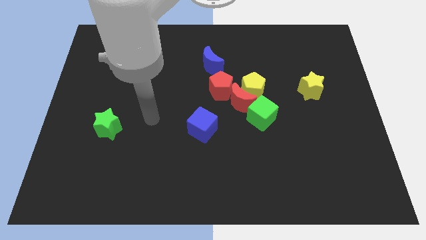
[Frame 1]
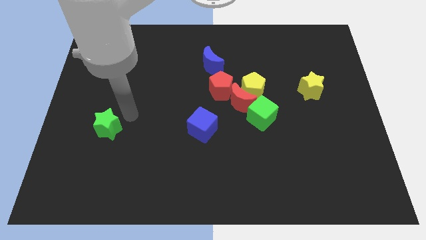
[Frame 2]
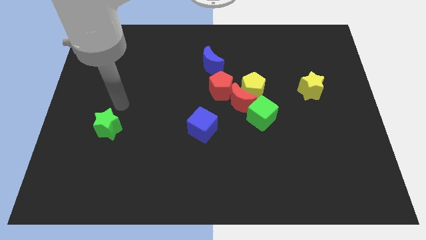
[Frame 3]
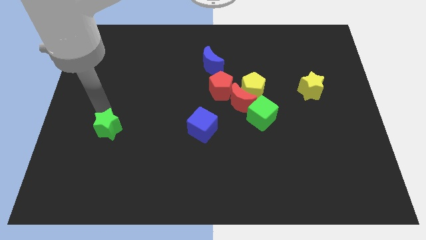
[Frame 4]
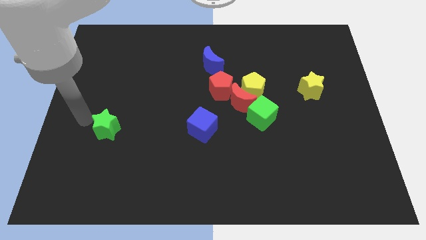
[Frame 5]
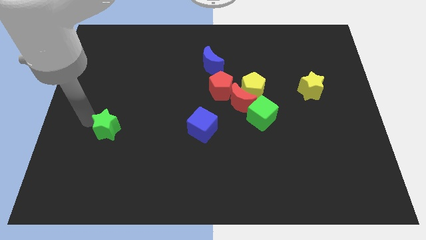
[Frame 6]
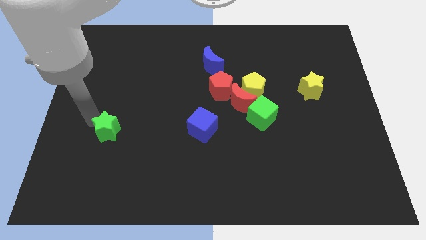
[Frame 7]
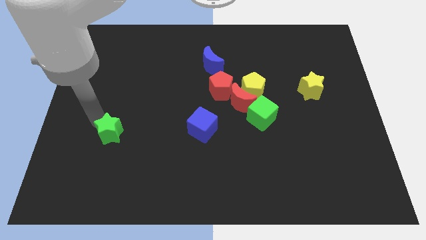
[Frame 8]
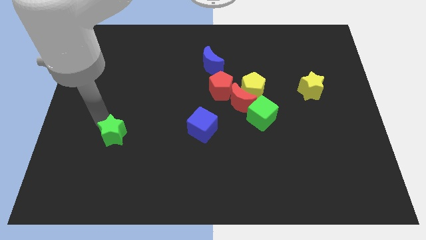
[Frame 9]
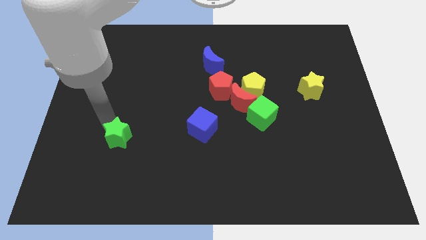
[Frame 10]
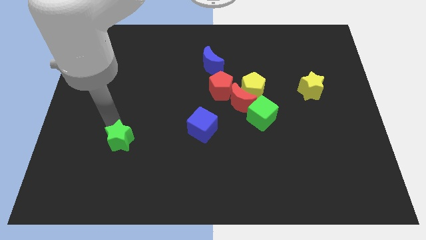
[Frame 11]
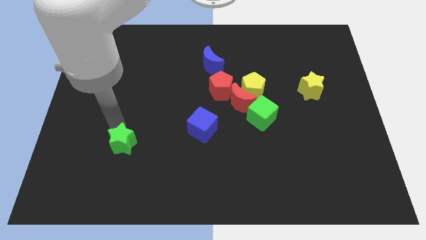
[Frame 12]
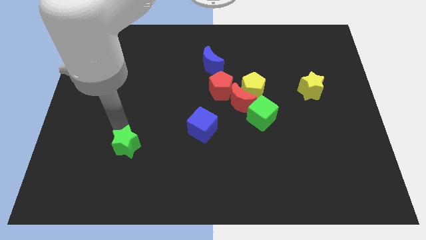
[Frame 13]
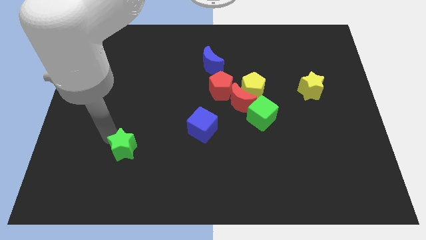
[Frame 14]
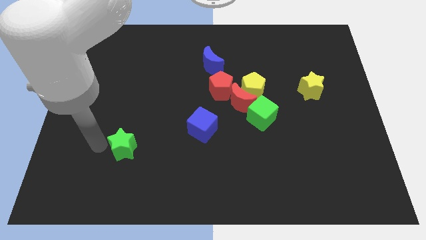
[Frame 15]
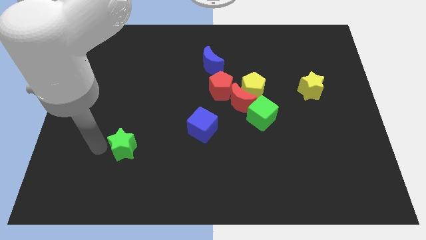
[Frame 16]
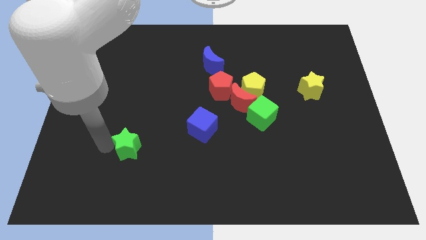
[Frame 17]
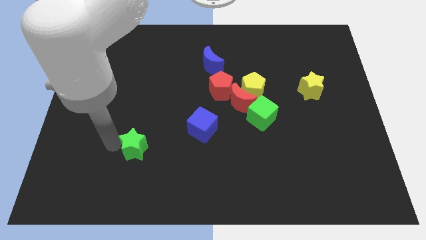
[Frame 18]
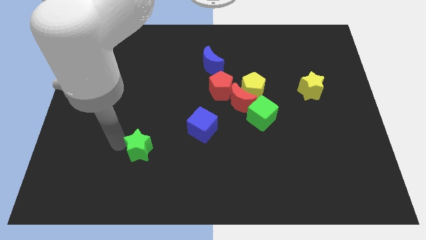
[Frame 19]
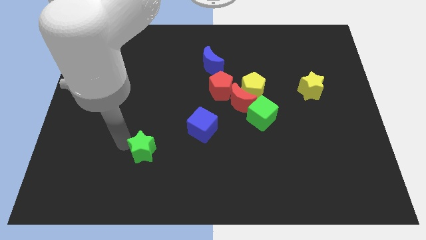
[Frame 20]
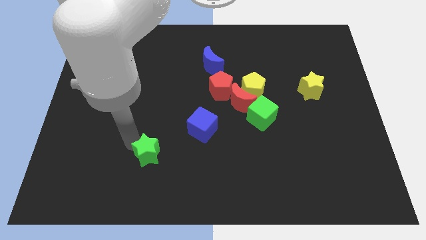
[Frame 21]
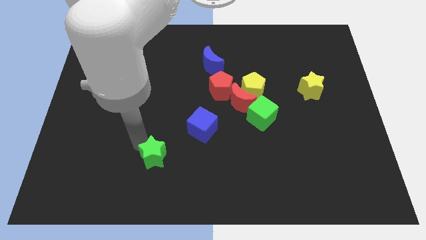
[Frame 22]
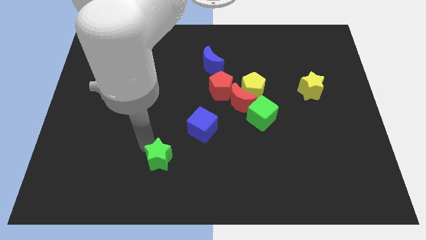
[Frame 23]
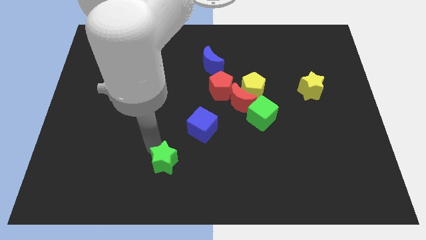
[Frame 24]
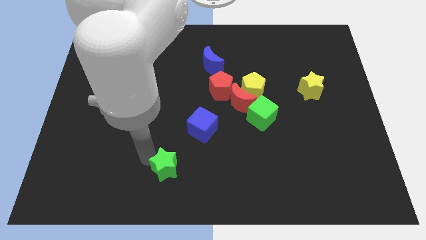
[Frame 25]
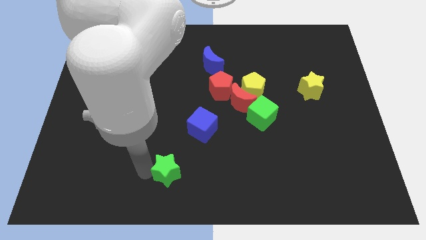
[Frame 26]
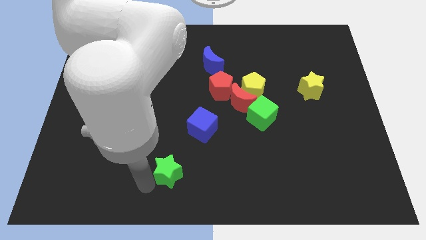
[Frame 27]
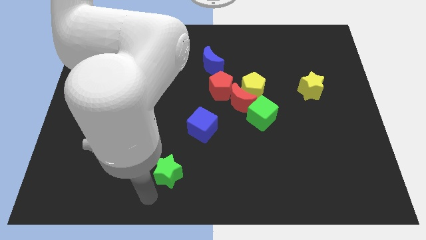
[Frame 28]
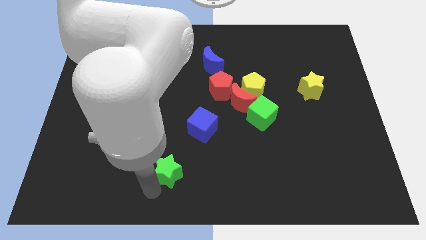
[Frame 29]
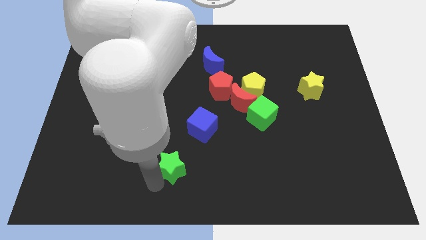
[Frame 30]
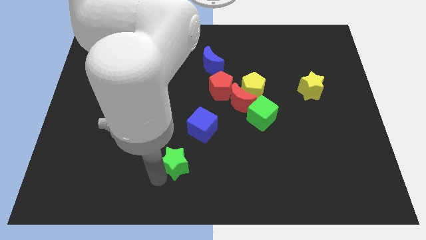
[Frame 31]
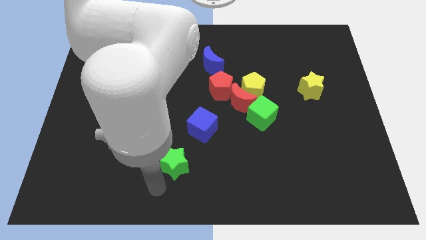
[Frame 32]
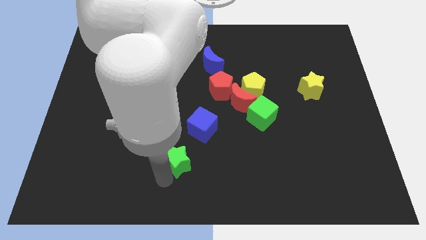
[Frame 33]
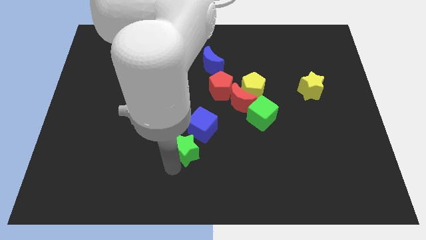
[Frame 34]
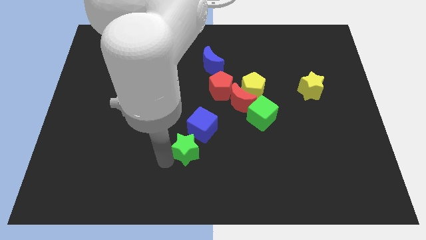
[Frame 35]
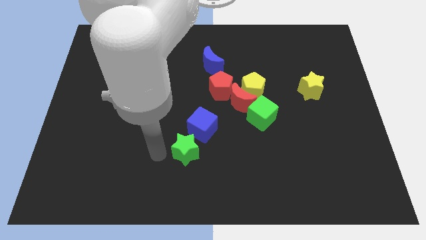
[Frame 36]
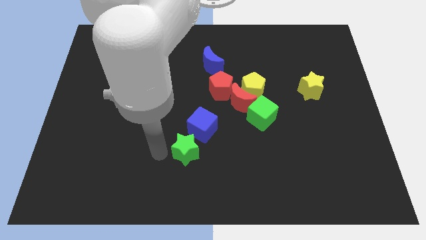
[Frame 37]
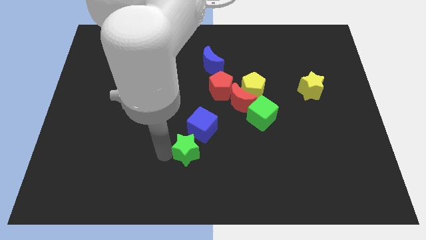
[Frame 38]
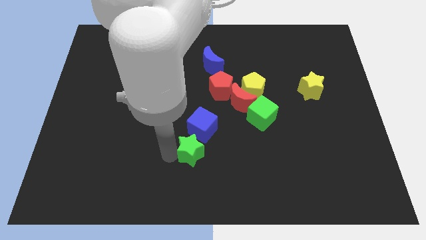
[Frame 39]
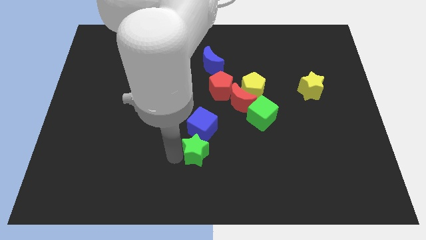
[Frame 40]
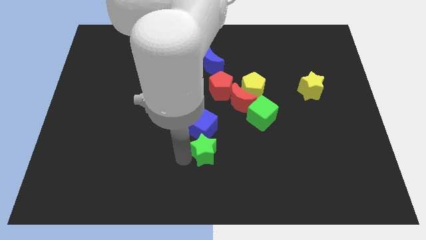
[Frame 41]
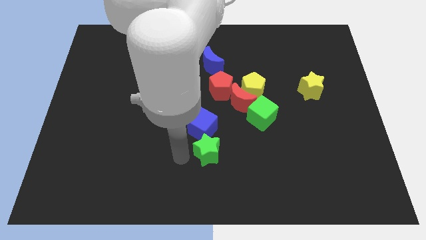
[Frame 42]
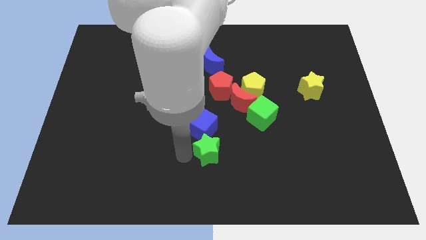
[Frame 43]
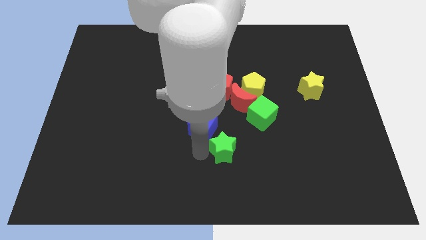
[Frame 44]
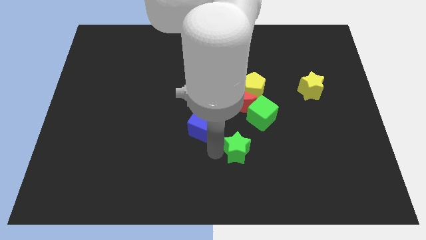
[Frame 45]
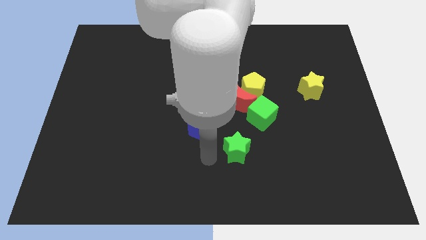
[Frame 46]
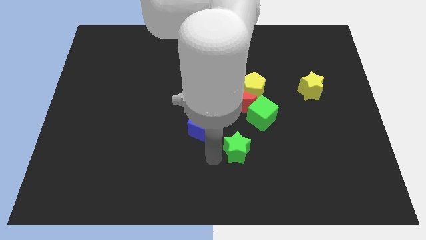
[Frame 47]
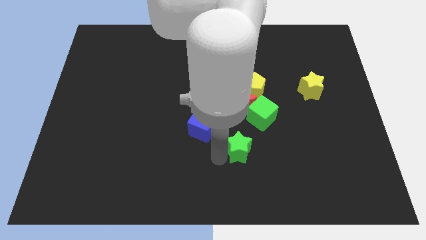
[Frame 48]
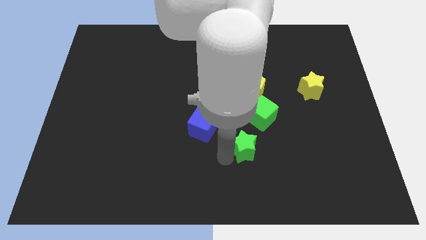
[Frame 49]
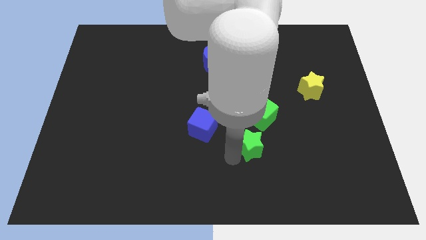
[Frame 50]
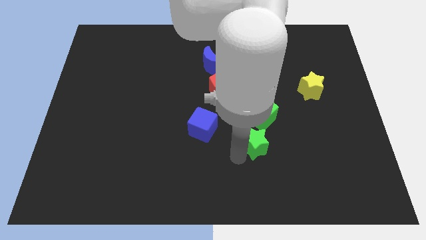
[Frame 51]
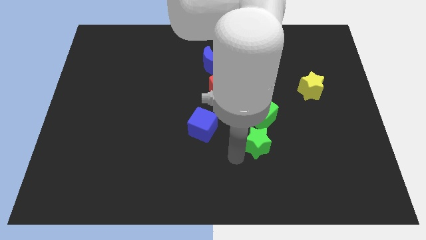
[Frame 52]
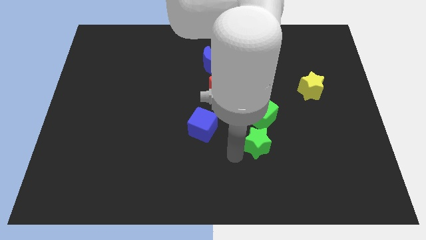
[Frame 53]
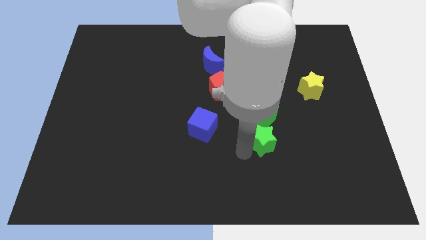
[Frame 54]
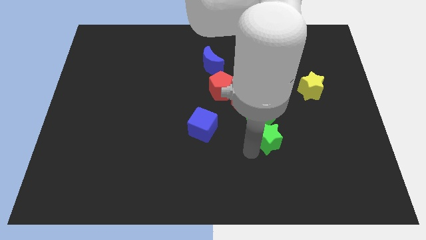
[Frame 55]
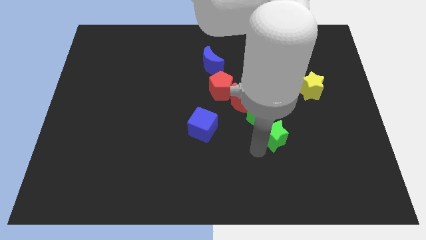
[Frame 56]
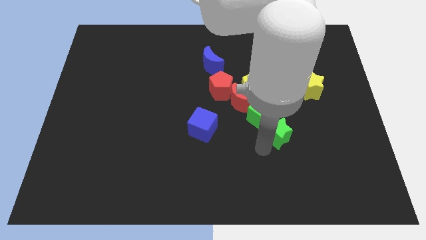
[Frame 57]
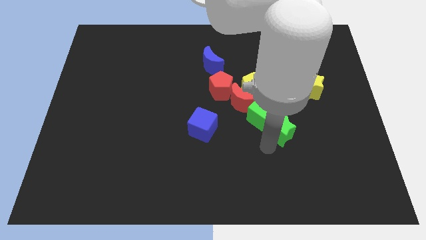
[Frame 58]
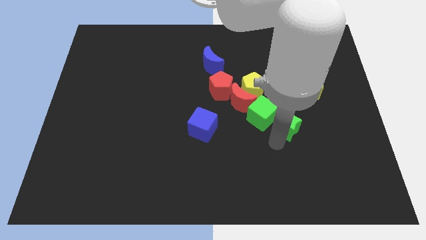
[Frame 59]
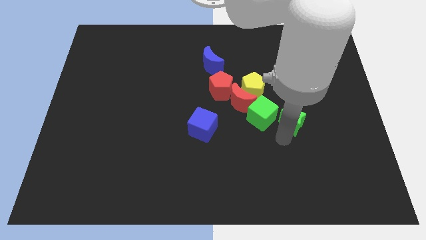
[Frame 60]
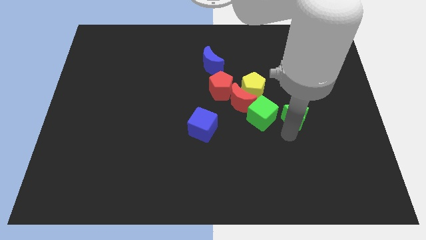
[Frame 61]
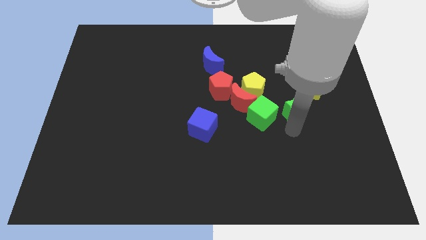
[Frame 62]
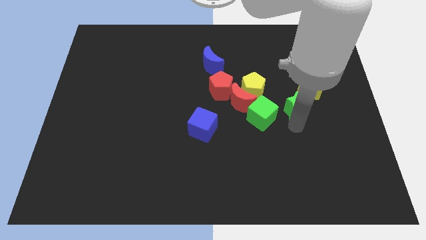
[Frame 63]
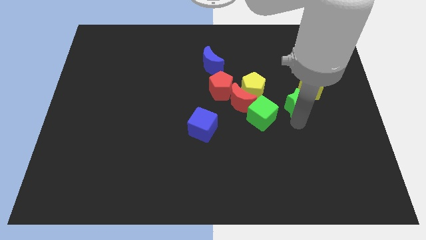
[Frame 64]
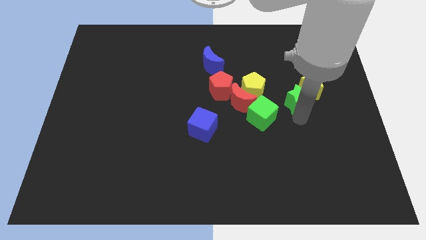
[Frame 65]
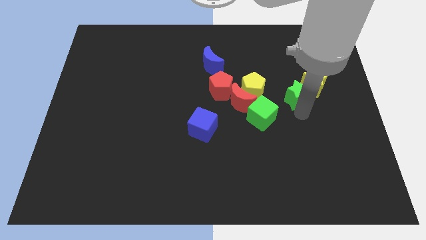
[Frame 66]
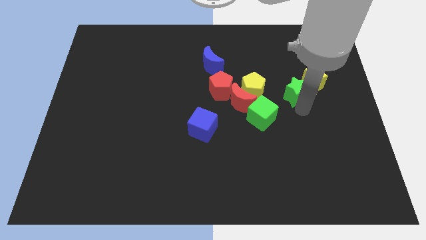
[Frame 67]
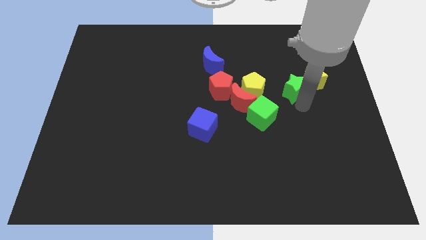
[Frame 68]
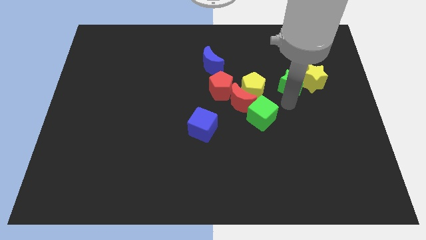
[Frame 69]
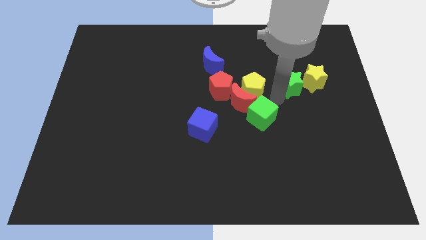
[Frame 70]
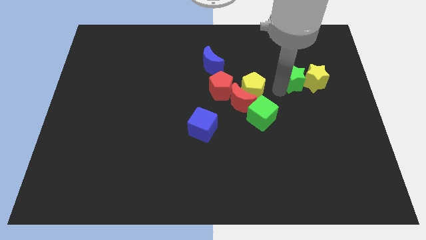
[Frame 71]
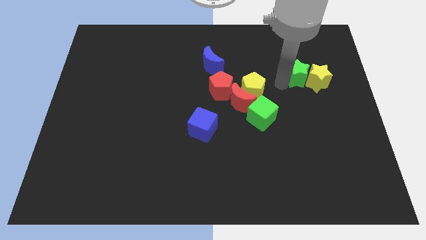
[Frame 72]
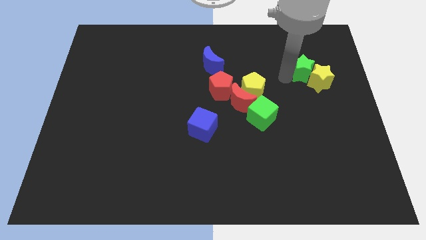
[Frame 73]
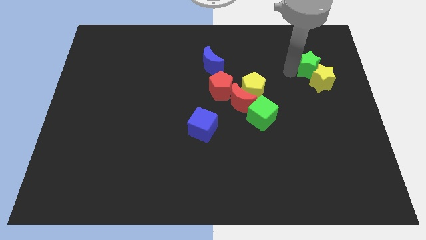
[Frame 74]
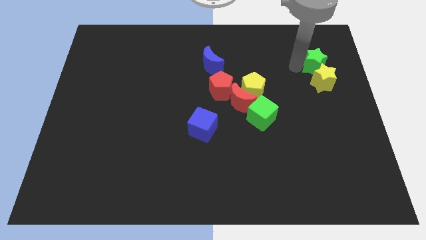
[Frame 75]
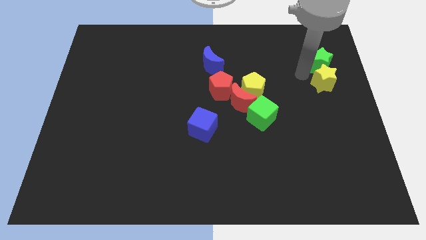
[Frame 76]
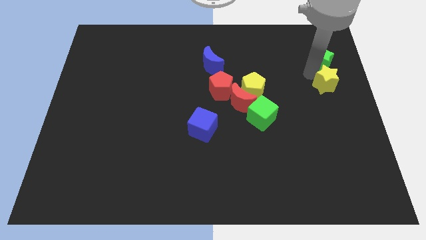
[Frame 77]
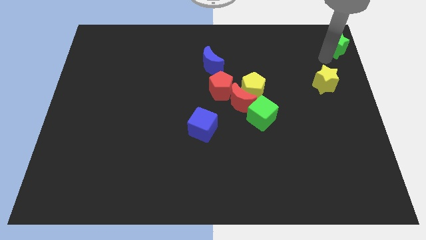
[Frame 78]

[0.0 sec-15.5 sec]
put the green star to the upper right corner
